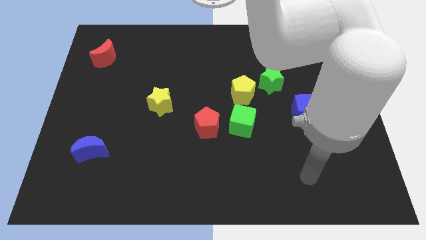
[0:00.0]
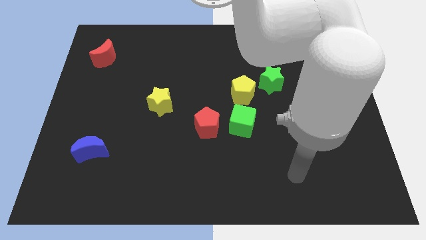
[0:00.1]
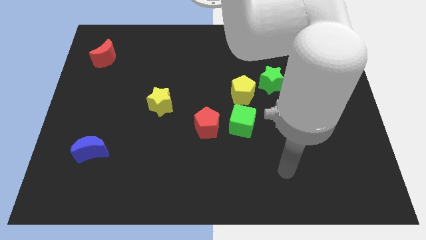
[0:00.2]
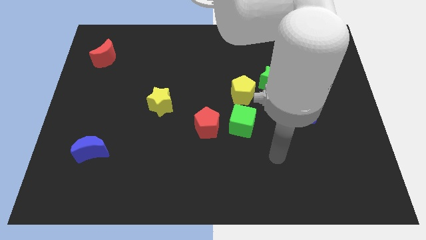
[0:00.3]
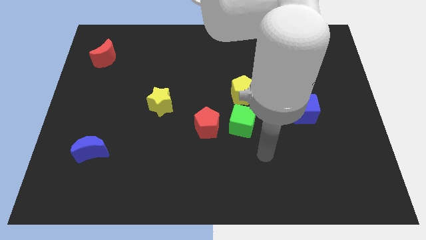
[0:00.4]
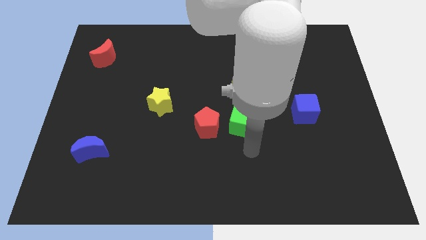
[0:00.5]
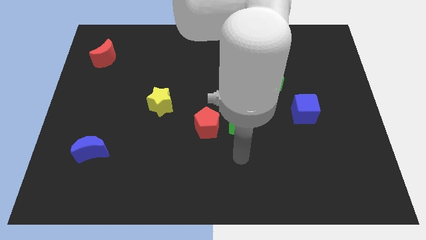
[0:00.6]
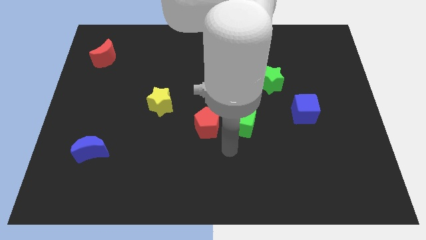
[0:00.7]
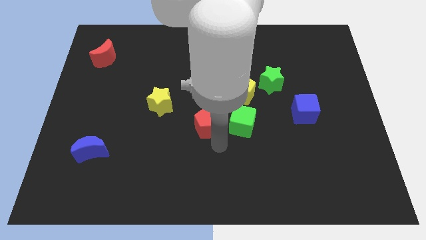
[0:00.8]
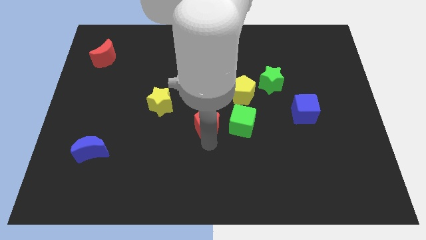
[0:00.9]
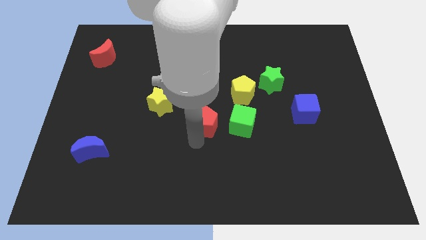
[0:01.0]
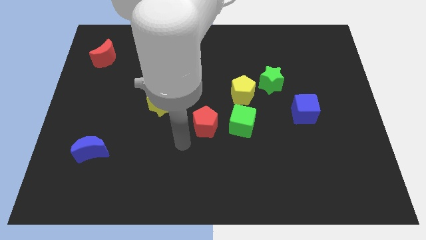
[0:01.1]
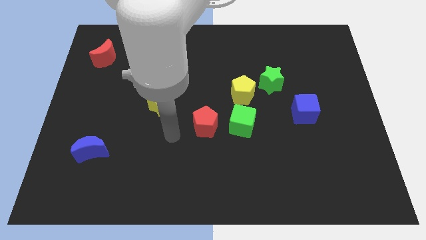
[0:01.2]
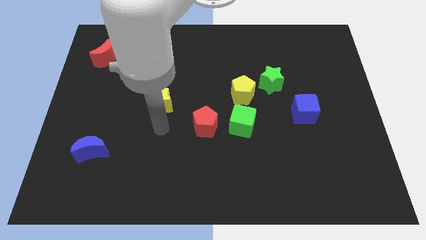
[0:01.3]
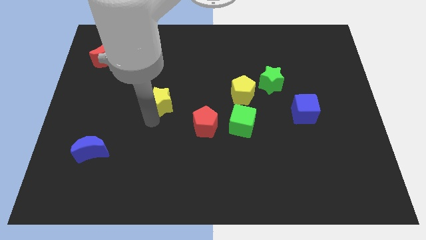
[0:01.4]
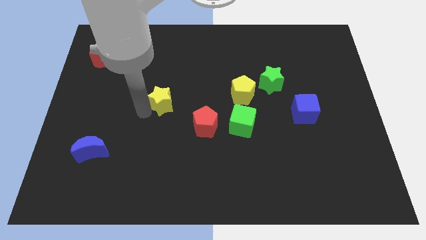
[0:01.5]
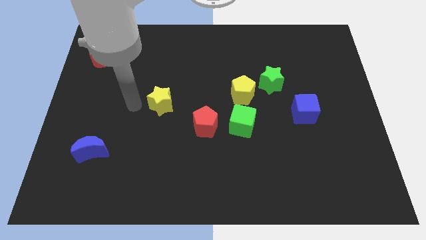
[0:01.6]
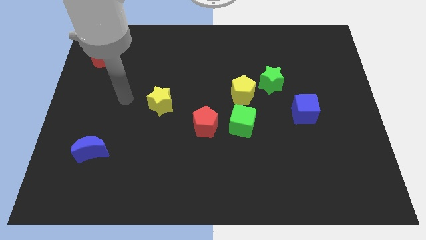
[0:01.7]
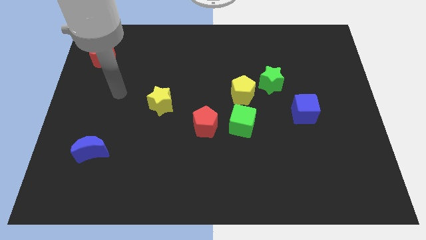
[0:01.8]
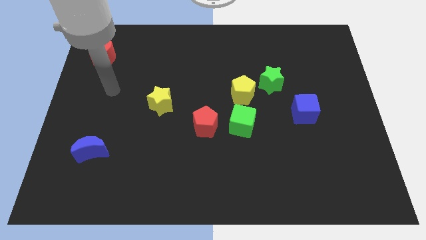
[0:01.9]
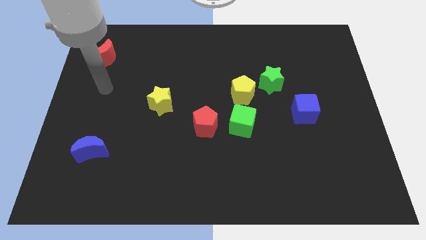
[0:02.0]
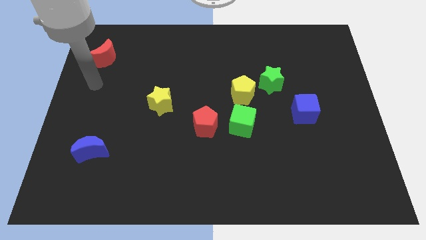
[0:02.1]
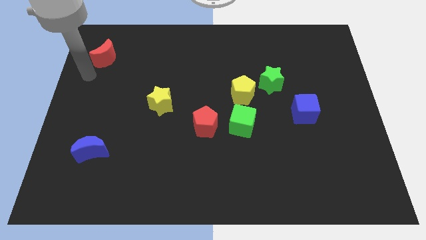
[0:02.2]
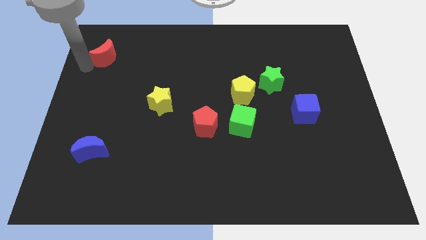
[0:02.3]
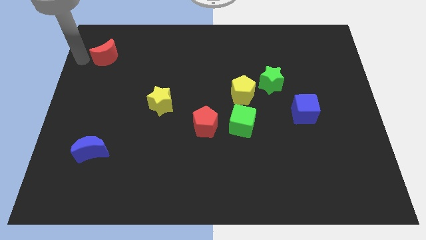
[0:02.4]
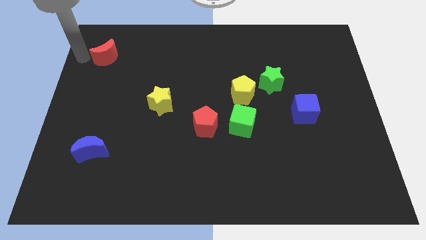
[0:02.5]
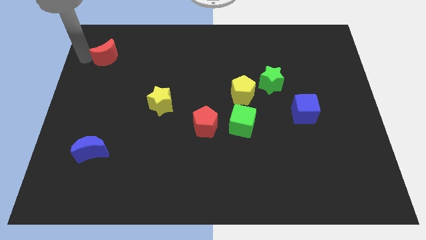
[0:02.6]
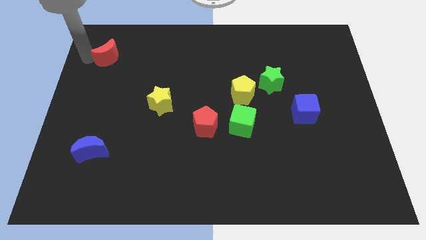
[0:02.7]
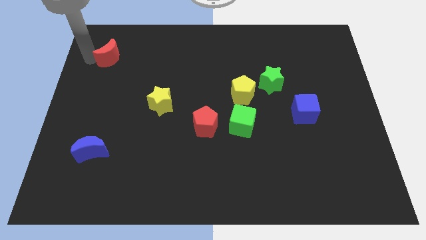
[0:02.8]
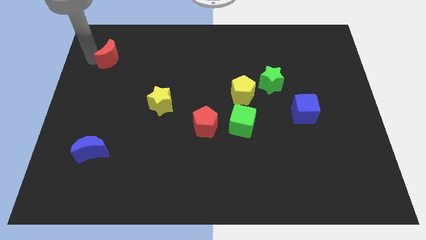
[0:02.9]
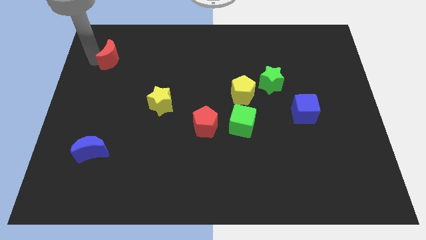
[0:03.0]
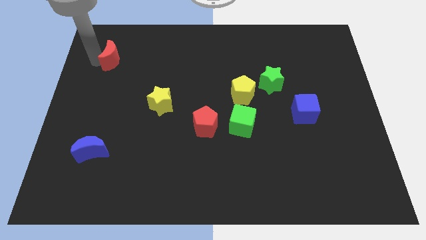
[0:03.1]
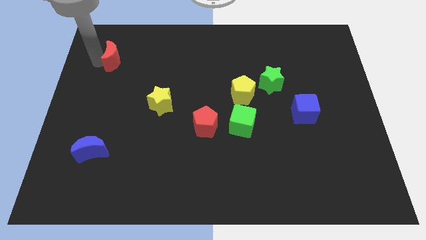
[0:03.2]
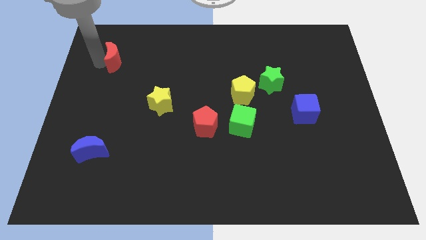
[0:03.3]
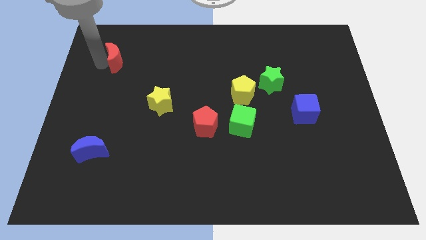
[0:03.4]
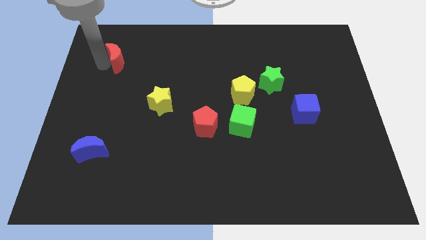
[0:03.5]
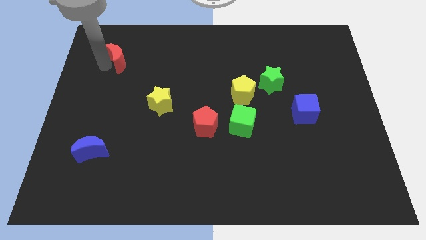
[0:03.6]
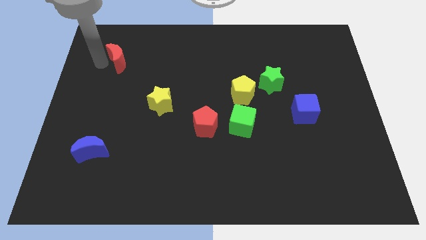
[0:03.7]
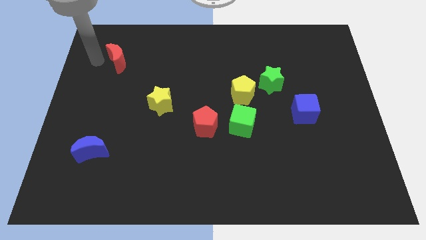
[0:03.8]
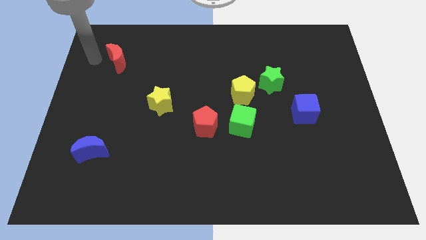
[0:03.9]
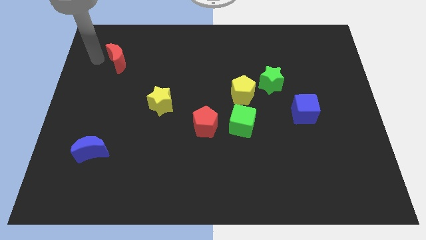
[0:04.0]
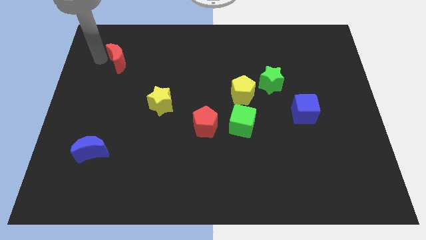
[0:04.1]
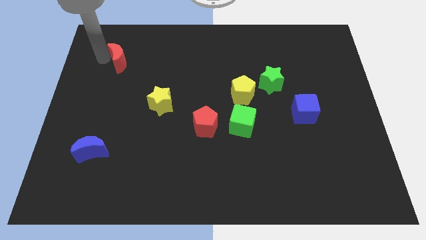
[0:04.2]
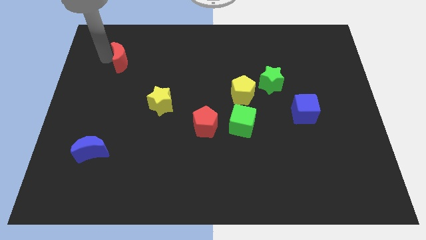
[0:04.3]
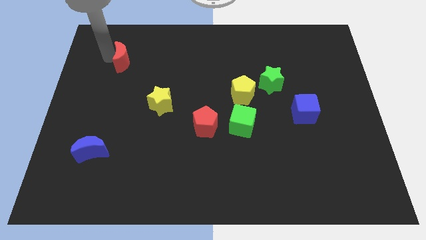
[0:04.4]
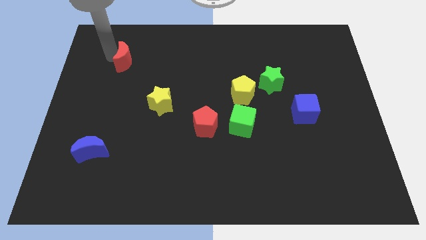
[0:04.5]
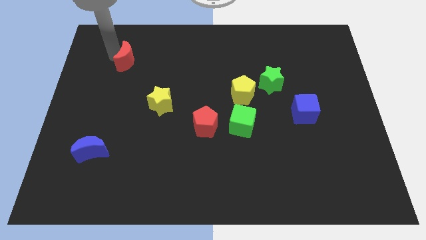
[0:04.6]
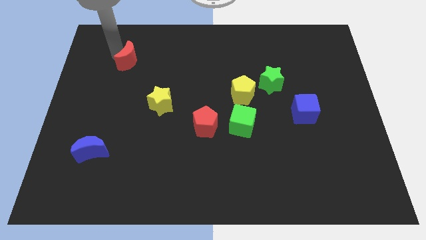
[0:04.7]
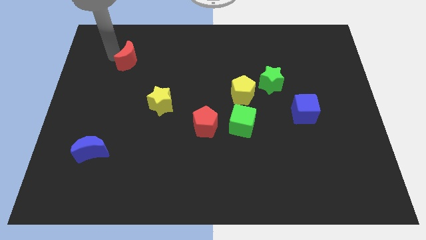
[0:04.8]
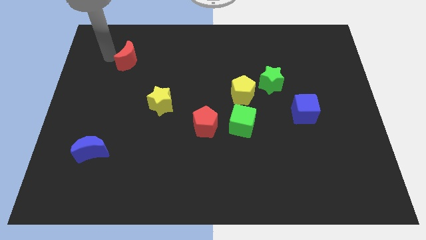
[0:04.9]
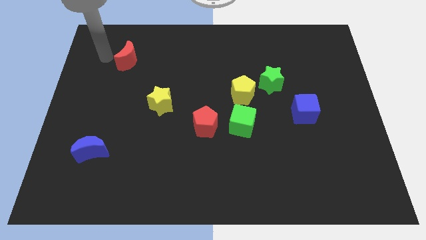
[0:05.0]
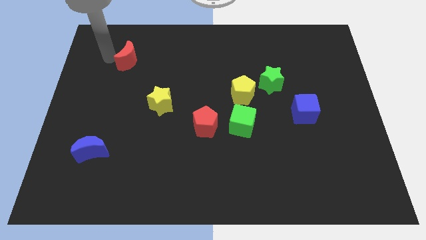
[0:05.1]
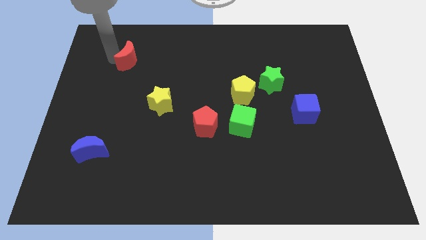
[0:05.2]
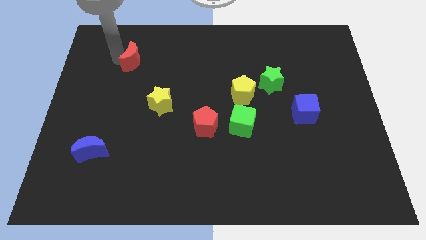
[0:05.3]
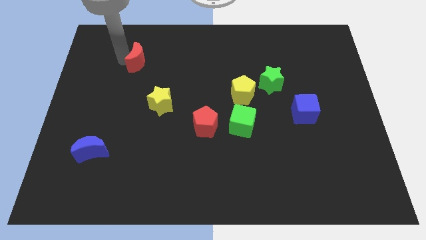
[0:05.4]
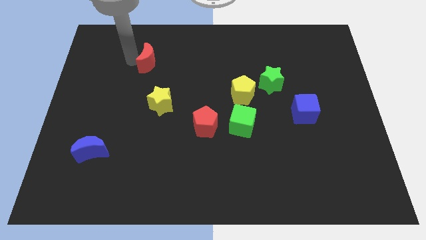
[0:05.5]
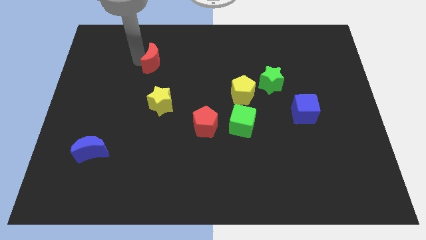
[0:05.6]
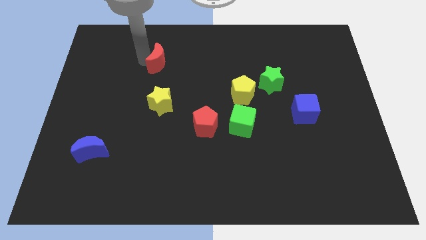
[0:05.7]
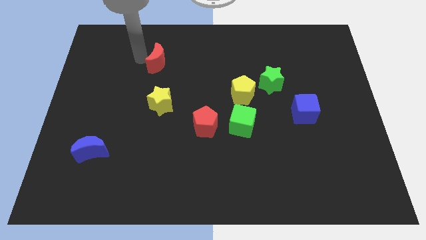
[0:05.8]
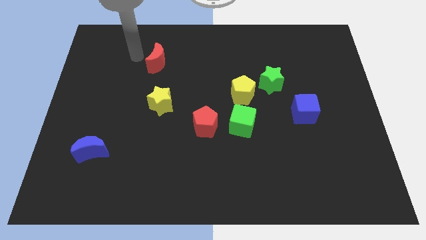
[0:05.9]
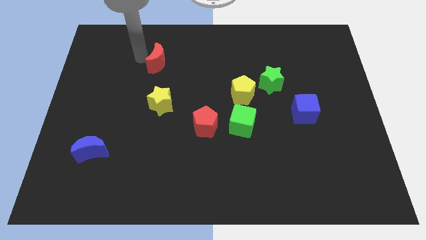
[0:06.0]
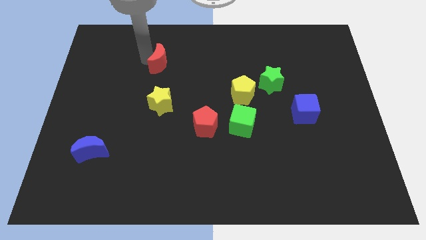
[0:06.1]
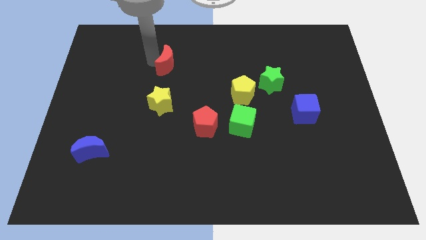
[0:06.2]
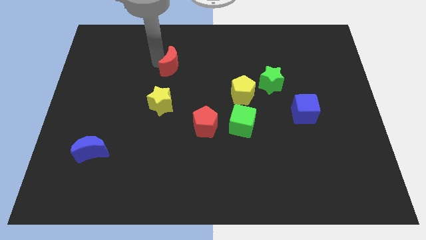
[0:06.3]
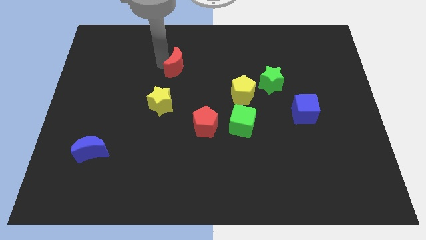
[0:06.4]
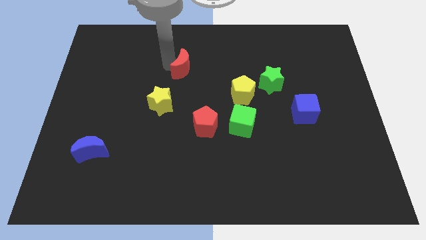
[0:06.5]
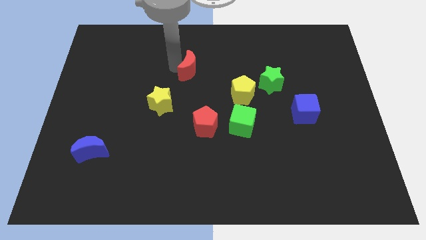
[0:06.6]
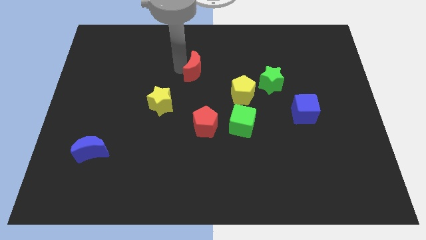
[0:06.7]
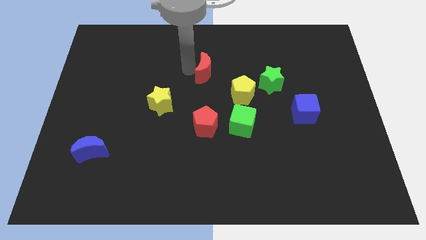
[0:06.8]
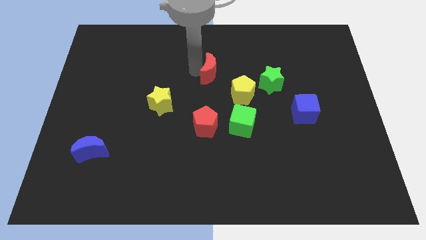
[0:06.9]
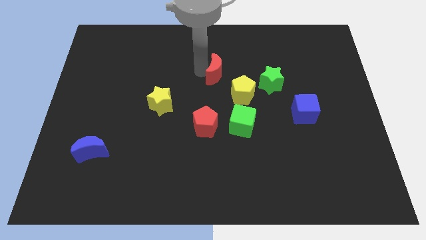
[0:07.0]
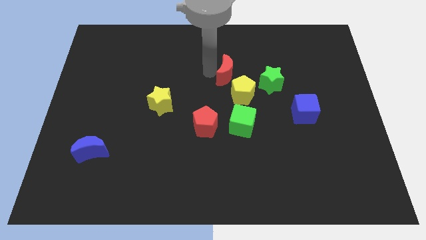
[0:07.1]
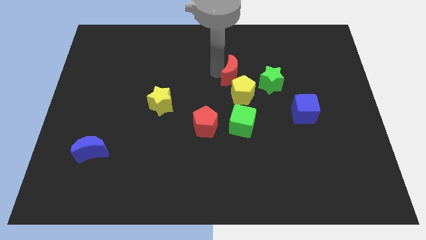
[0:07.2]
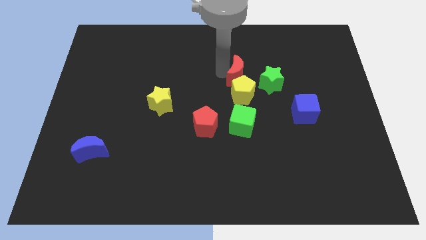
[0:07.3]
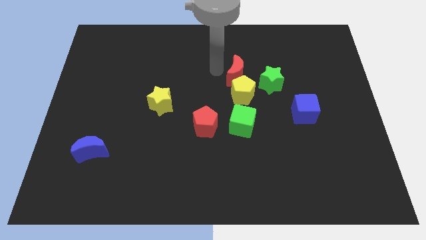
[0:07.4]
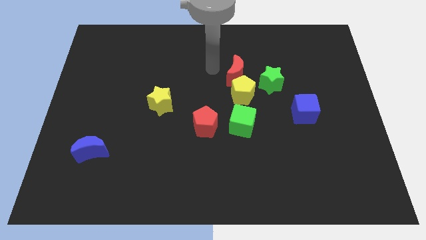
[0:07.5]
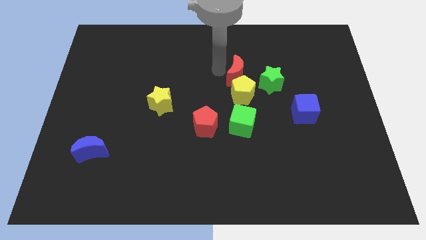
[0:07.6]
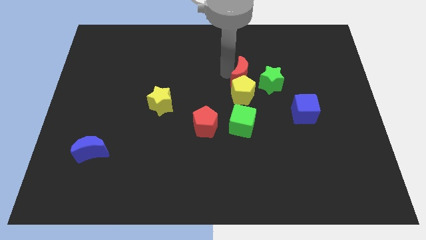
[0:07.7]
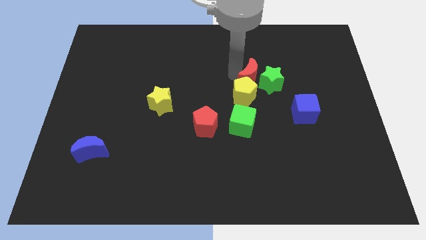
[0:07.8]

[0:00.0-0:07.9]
put the red moon close to the green star
